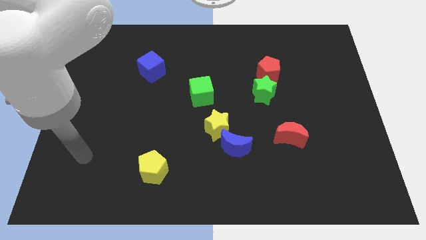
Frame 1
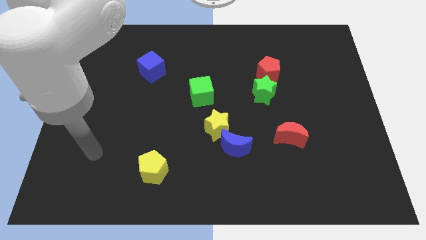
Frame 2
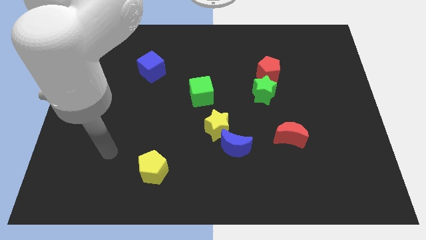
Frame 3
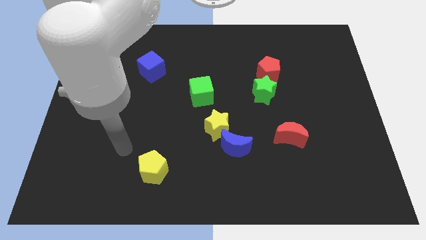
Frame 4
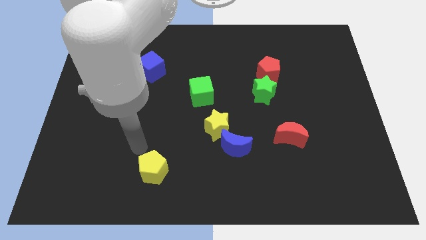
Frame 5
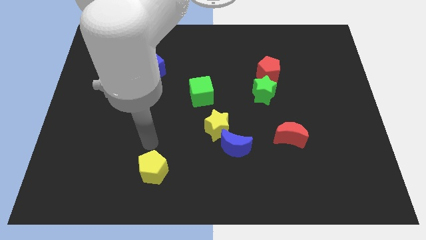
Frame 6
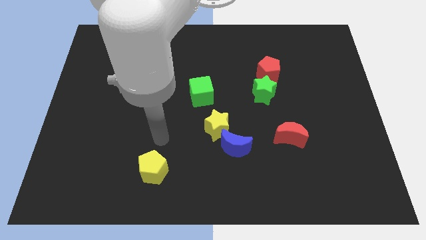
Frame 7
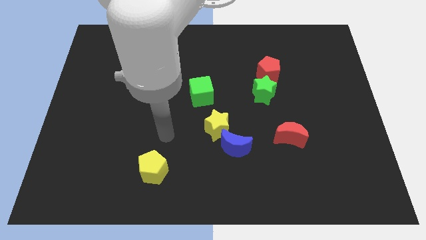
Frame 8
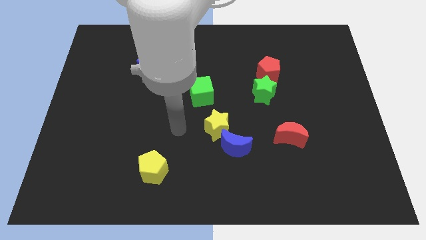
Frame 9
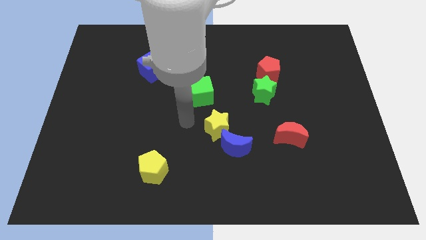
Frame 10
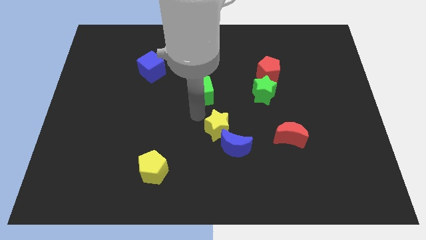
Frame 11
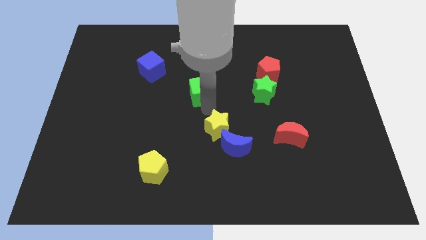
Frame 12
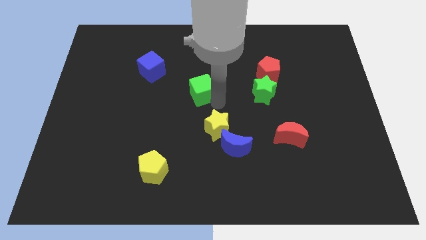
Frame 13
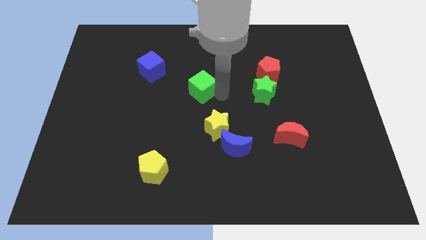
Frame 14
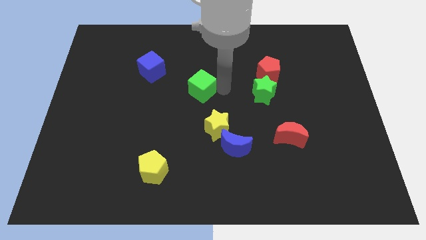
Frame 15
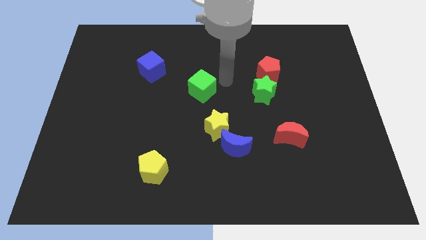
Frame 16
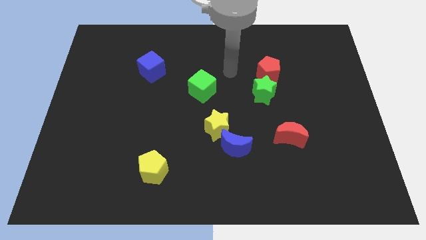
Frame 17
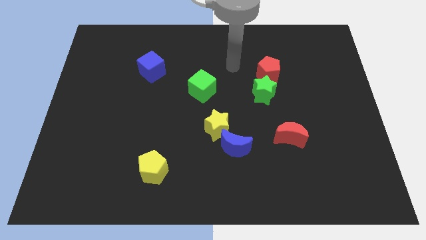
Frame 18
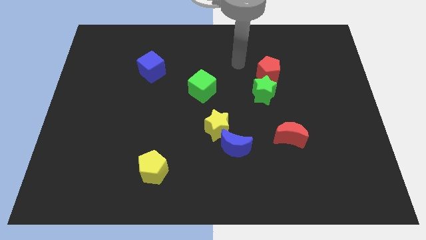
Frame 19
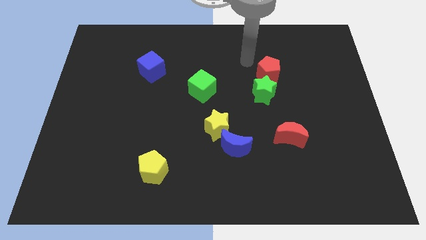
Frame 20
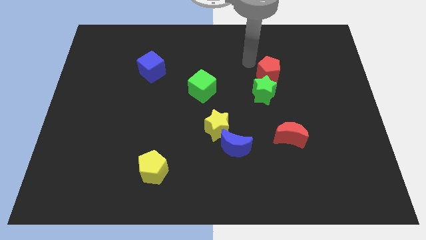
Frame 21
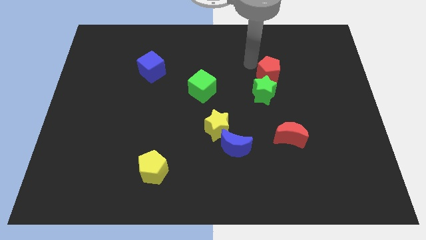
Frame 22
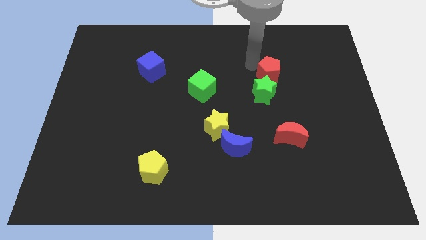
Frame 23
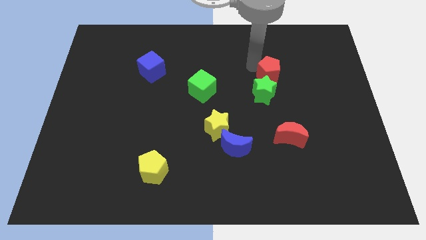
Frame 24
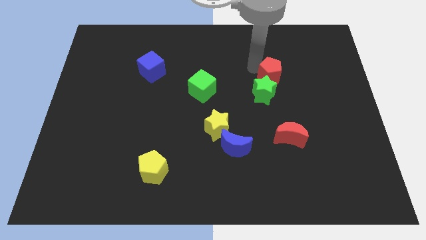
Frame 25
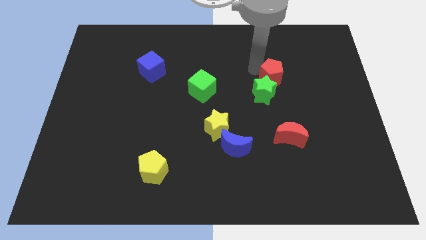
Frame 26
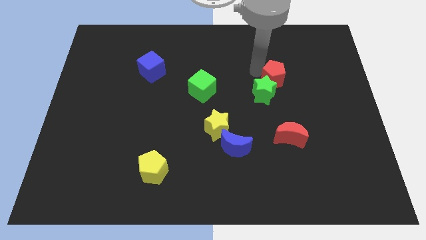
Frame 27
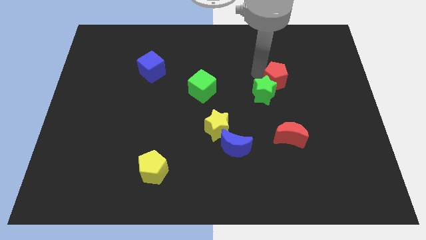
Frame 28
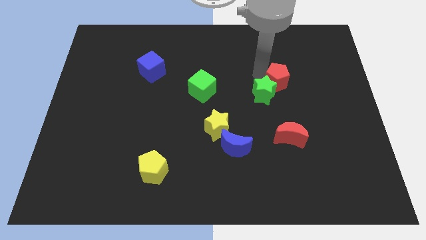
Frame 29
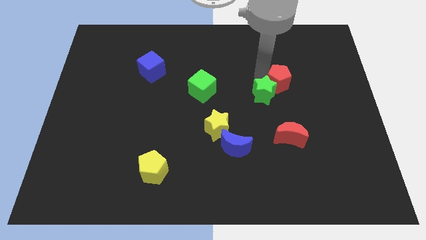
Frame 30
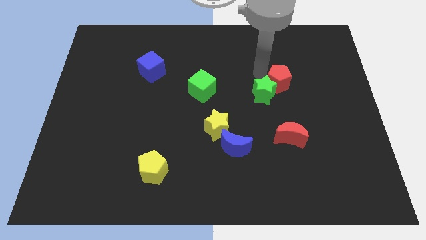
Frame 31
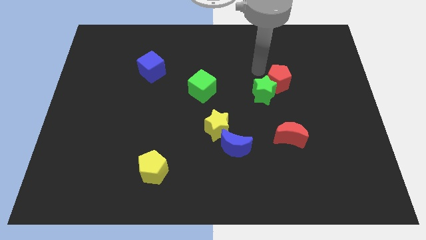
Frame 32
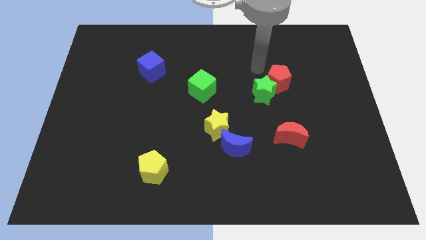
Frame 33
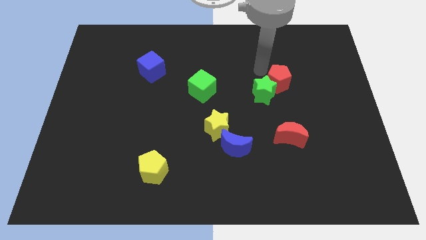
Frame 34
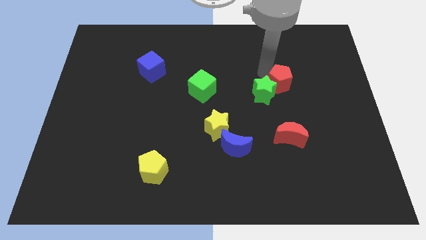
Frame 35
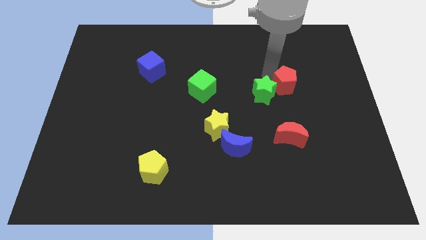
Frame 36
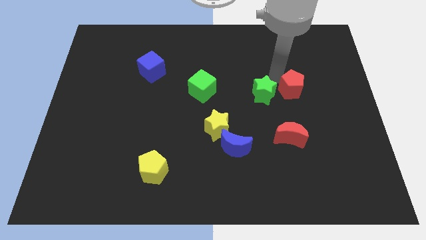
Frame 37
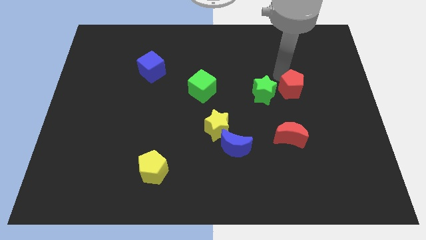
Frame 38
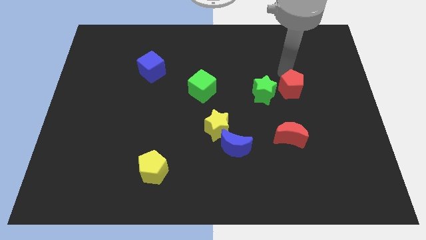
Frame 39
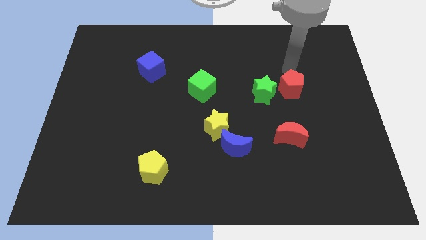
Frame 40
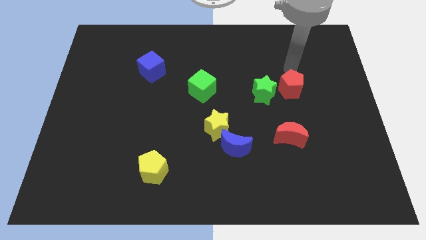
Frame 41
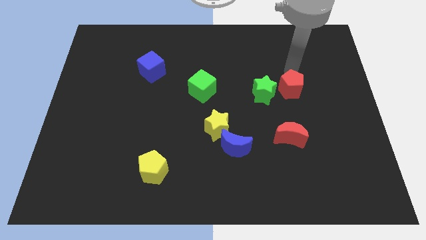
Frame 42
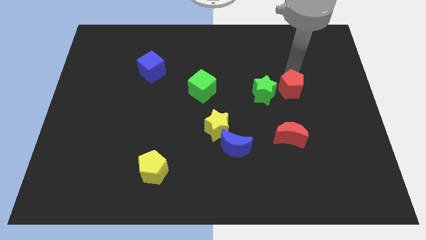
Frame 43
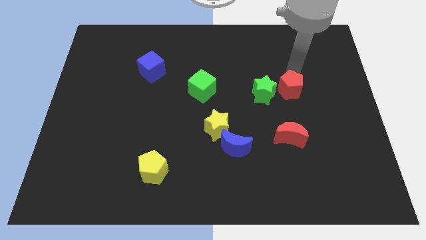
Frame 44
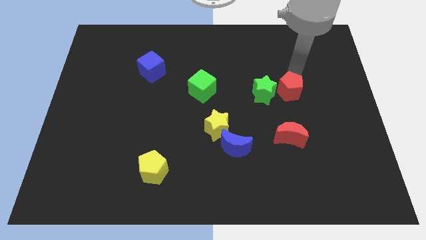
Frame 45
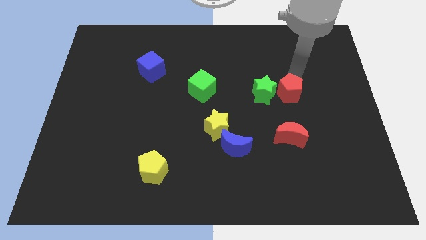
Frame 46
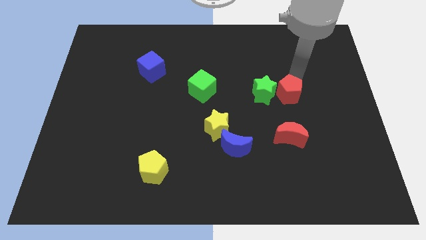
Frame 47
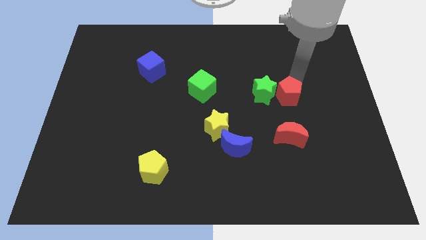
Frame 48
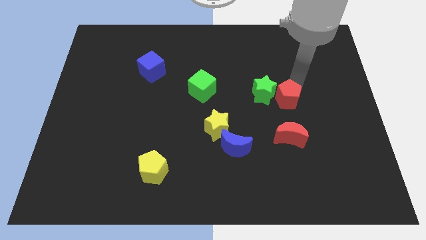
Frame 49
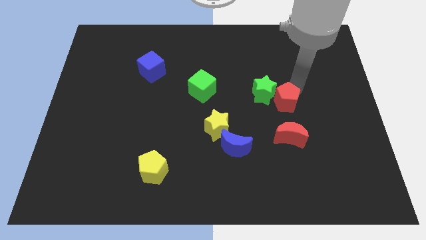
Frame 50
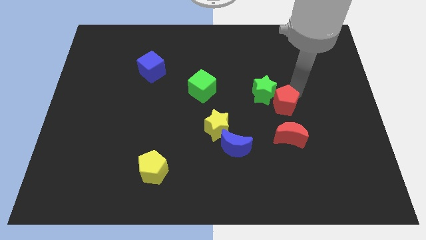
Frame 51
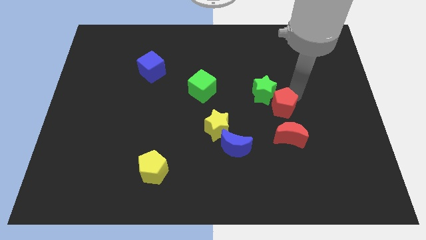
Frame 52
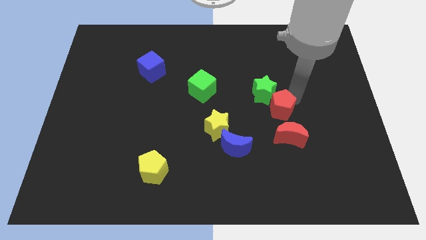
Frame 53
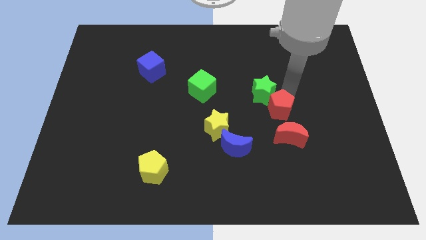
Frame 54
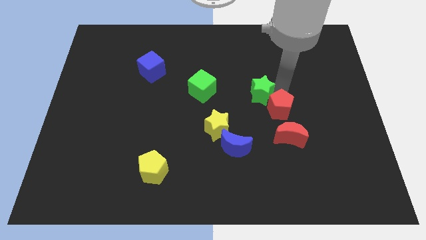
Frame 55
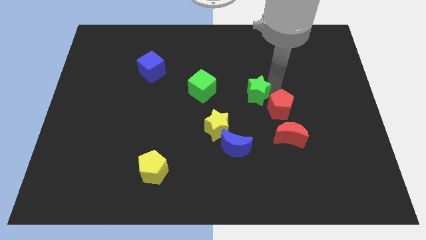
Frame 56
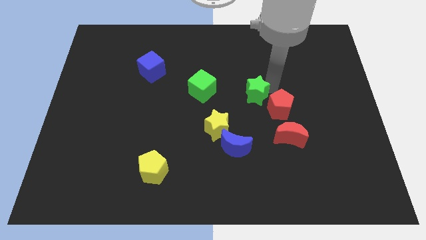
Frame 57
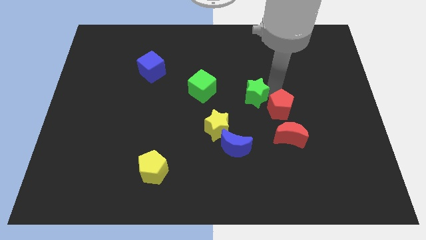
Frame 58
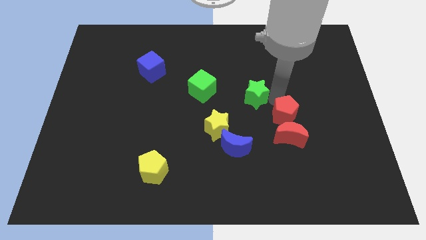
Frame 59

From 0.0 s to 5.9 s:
slide the red pentagon close to the red moon
